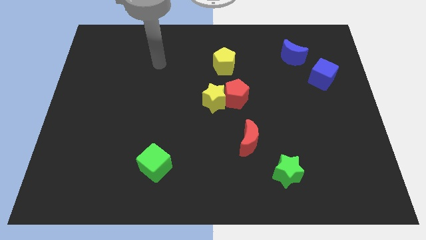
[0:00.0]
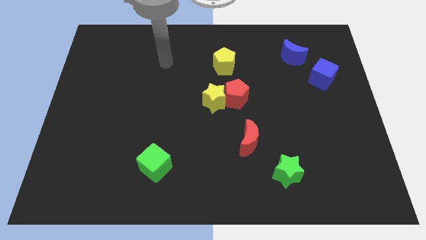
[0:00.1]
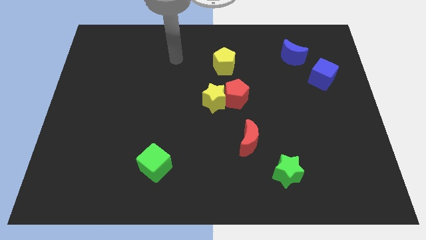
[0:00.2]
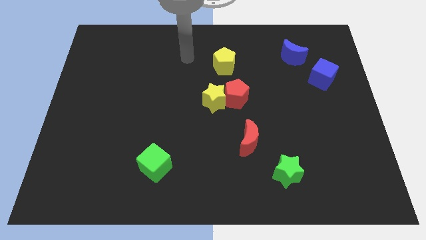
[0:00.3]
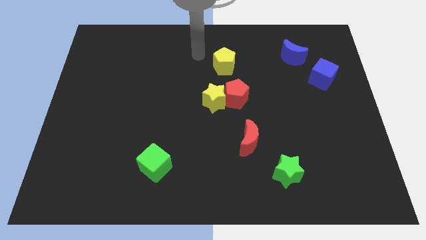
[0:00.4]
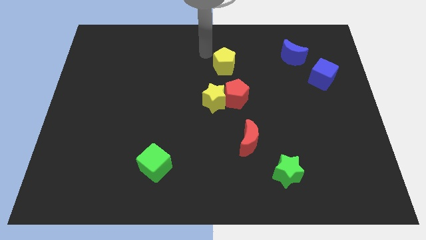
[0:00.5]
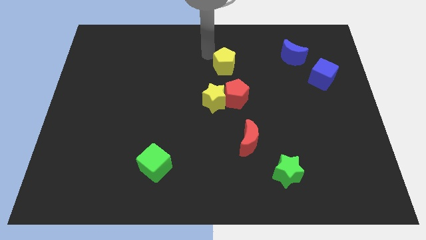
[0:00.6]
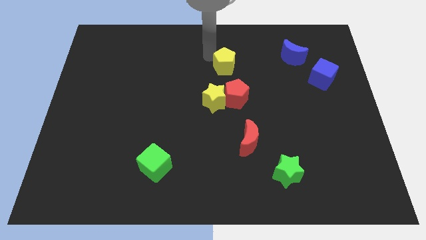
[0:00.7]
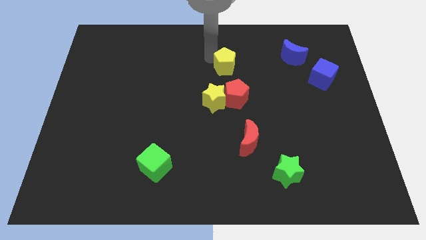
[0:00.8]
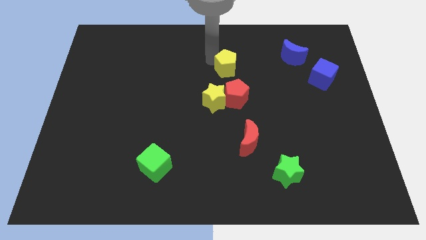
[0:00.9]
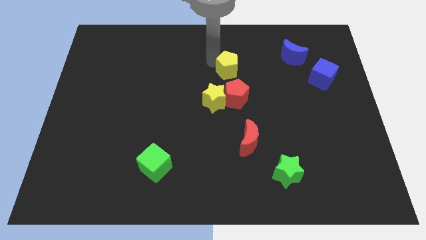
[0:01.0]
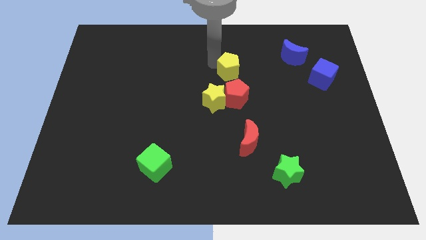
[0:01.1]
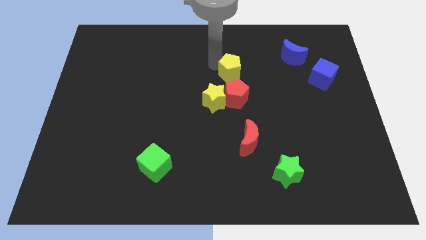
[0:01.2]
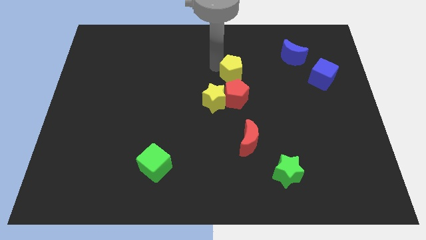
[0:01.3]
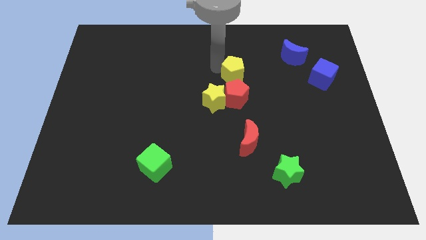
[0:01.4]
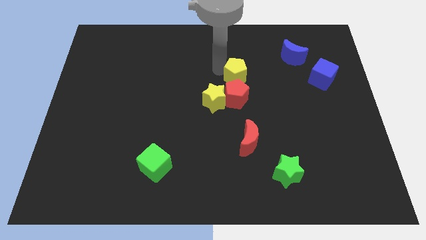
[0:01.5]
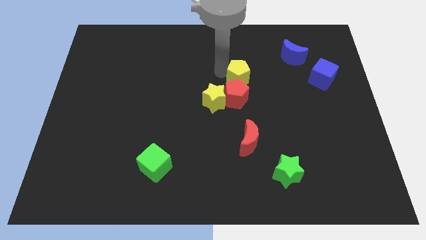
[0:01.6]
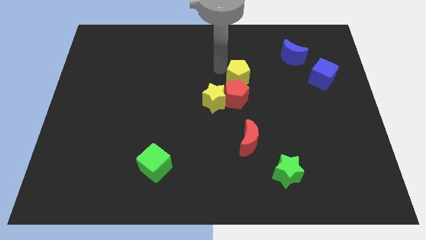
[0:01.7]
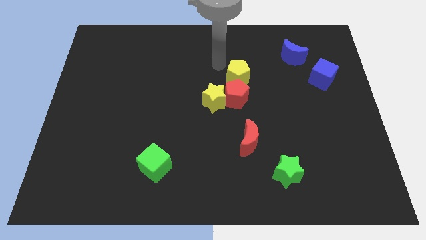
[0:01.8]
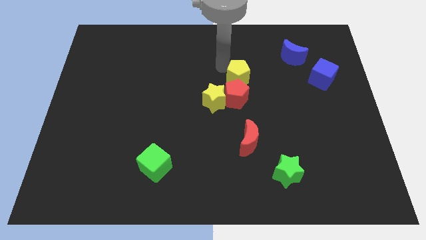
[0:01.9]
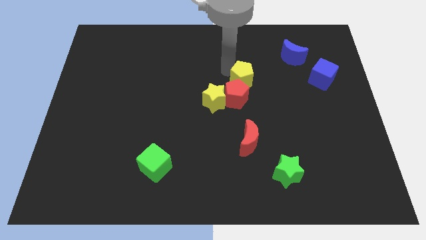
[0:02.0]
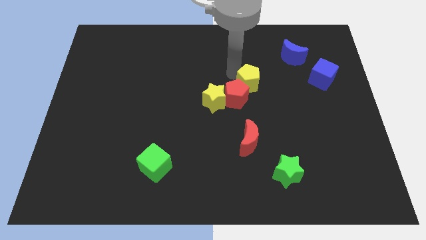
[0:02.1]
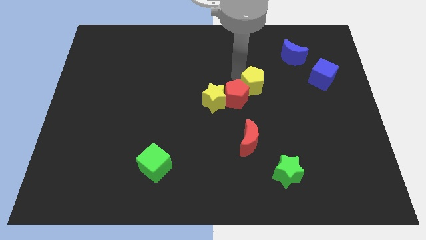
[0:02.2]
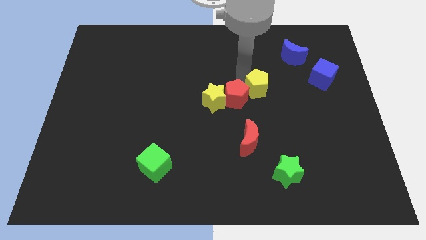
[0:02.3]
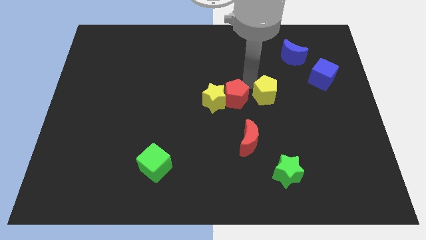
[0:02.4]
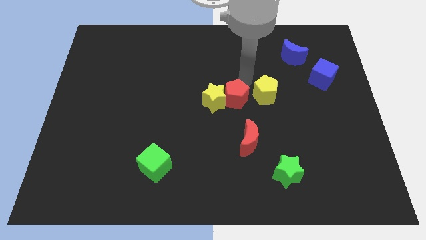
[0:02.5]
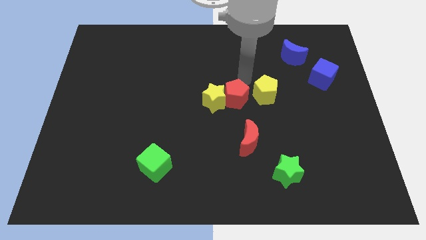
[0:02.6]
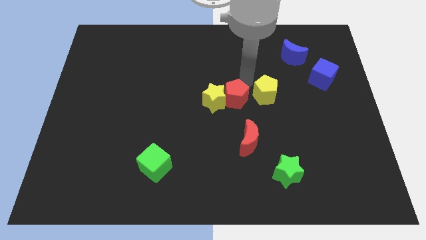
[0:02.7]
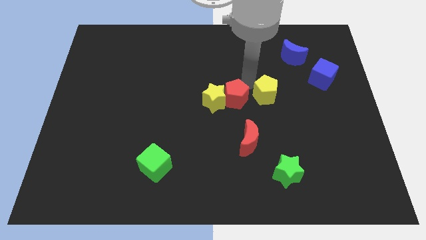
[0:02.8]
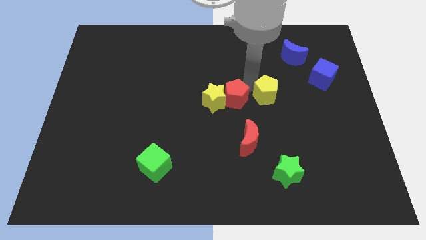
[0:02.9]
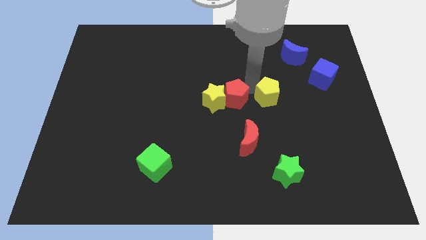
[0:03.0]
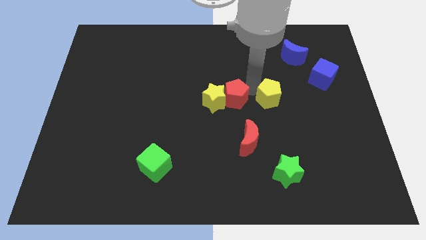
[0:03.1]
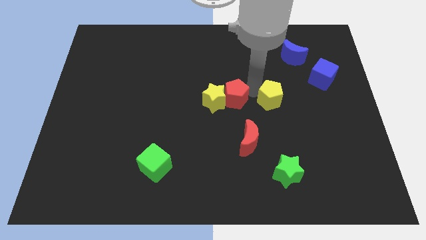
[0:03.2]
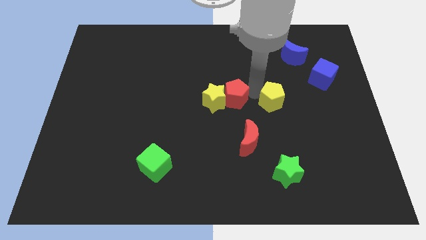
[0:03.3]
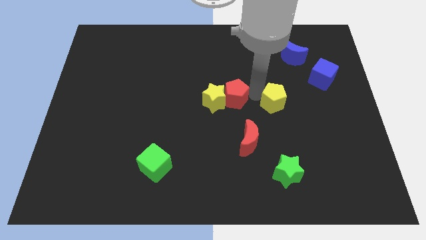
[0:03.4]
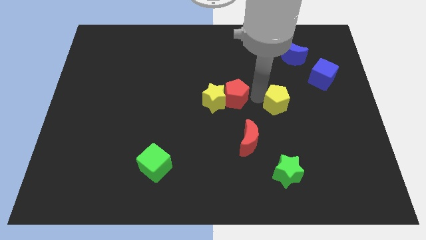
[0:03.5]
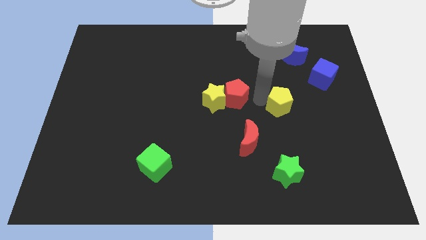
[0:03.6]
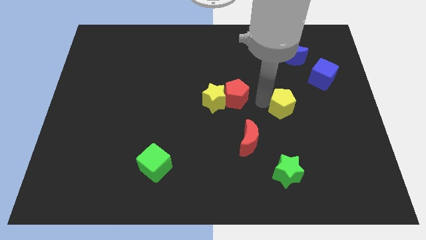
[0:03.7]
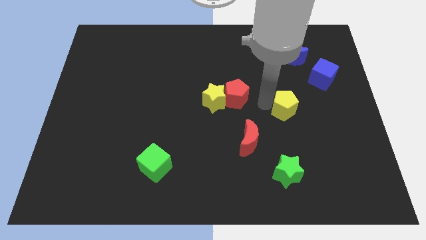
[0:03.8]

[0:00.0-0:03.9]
push the yellow pentagon down and to the right diagonally

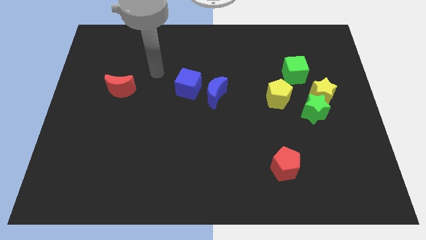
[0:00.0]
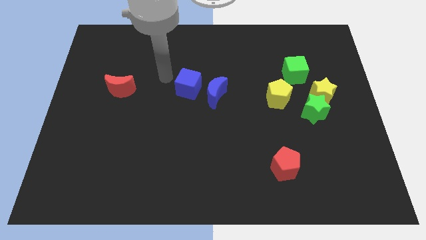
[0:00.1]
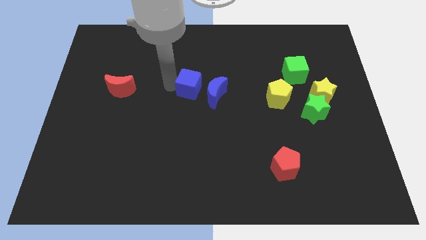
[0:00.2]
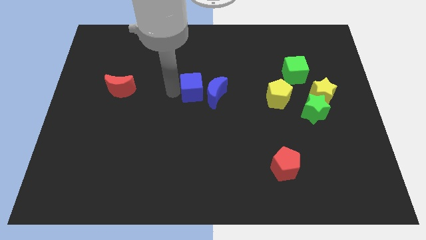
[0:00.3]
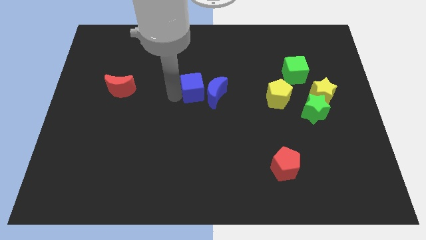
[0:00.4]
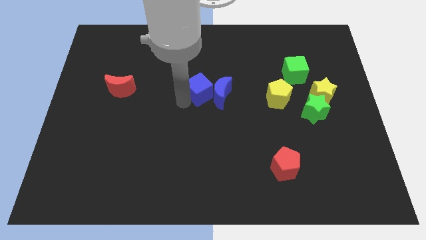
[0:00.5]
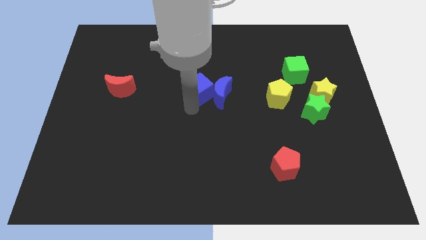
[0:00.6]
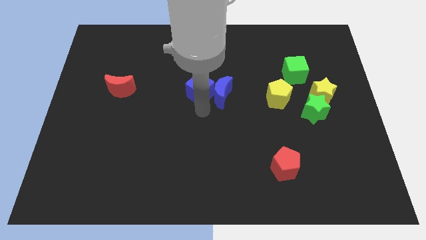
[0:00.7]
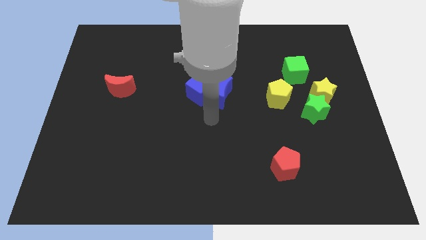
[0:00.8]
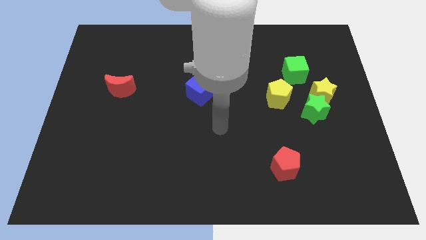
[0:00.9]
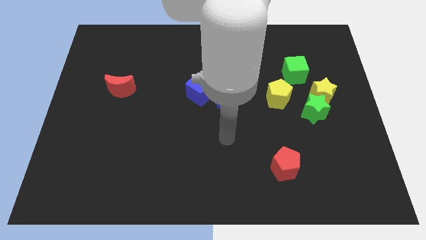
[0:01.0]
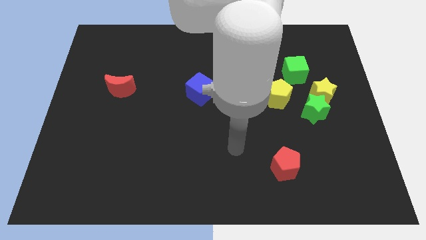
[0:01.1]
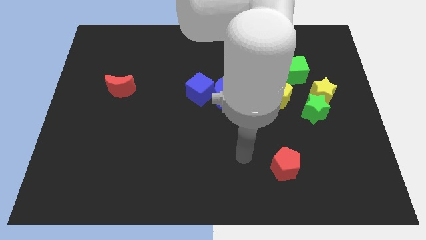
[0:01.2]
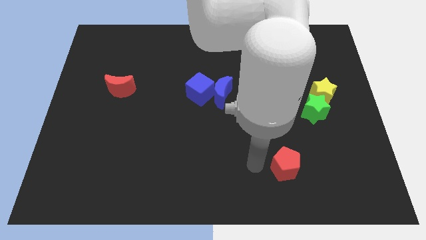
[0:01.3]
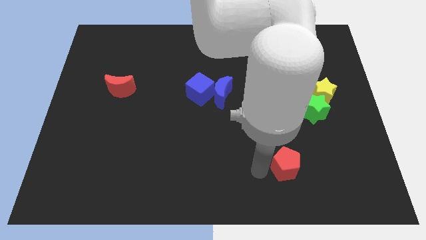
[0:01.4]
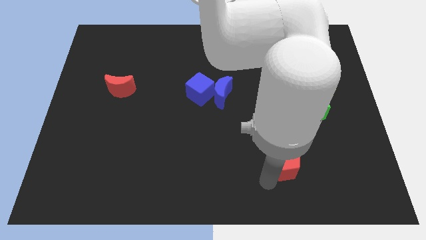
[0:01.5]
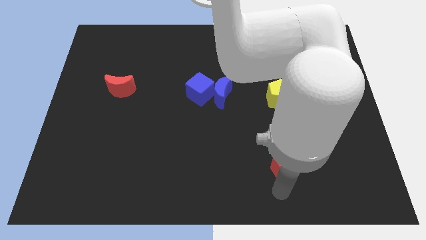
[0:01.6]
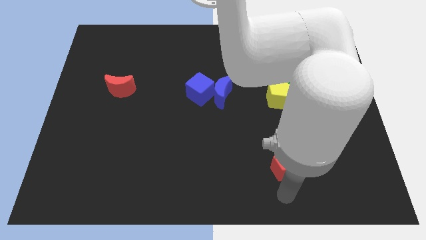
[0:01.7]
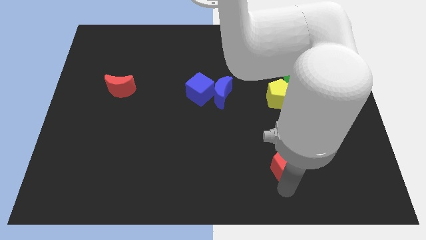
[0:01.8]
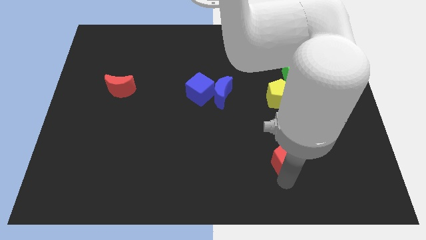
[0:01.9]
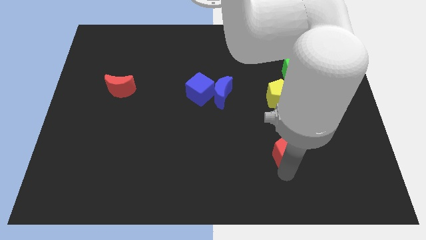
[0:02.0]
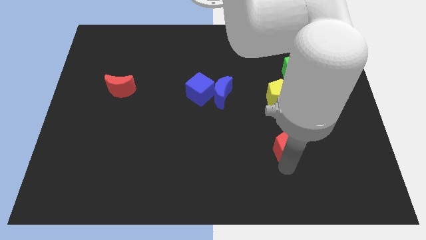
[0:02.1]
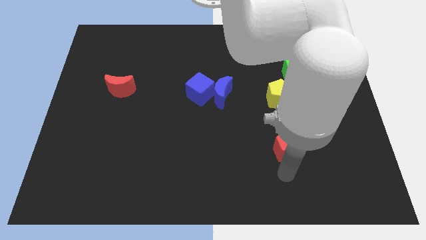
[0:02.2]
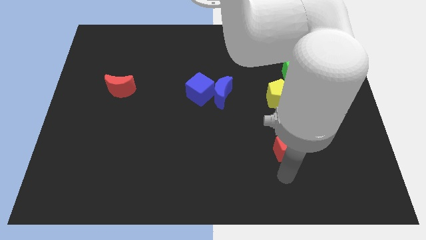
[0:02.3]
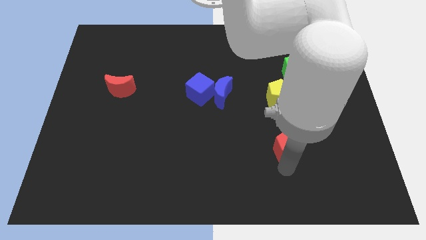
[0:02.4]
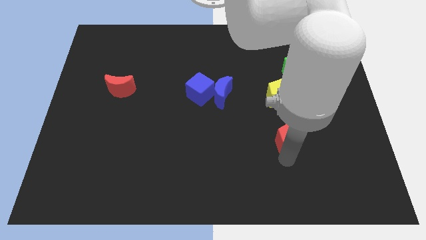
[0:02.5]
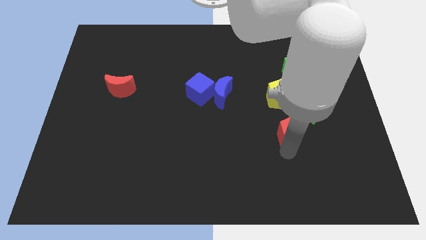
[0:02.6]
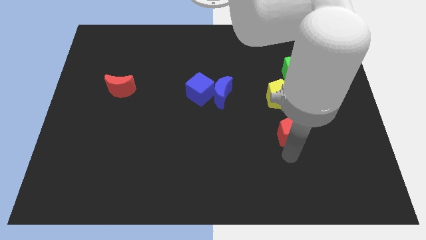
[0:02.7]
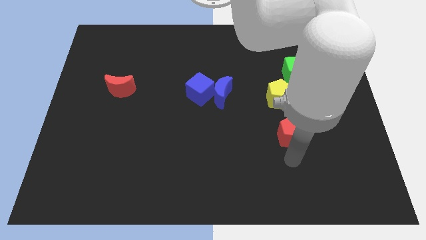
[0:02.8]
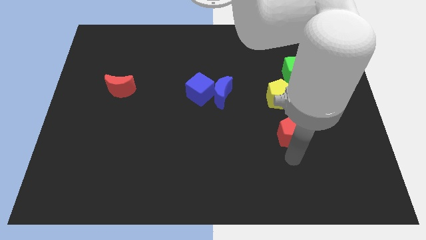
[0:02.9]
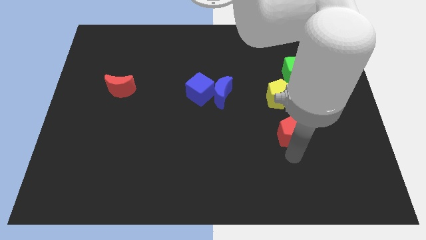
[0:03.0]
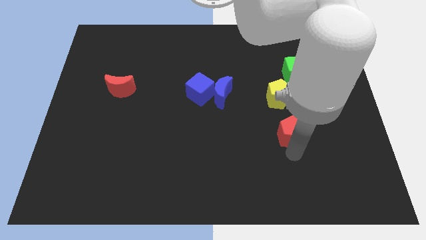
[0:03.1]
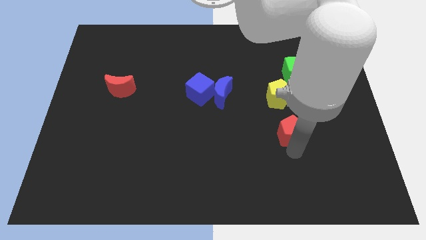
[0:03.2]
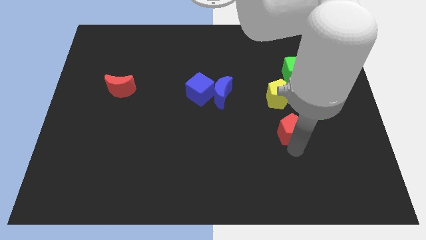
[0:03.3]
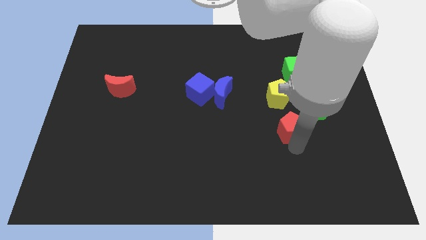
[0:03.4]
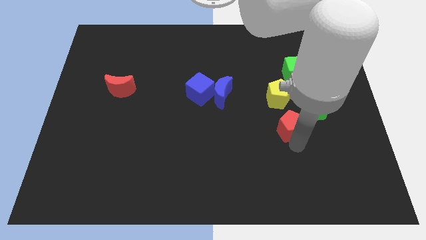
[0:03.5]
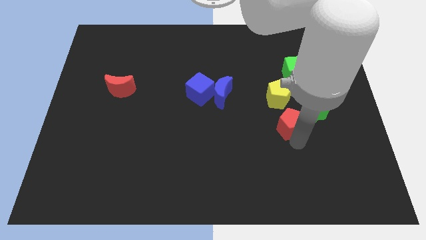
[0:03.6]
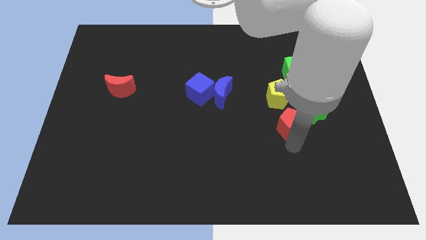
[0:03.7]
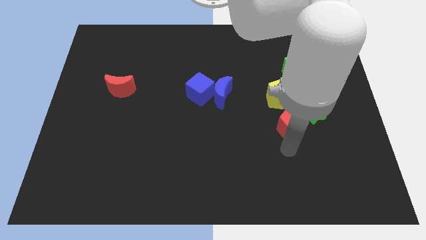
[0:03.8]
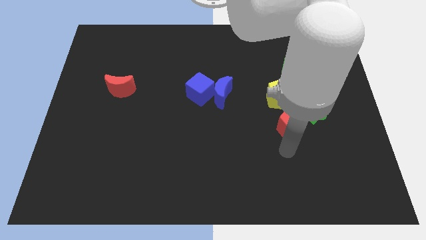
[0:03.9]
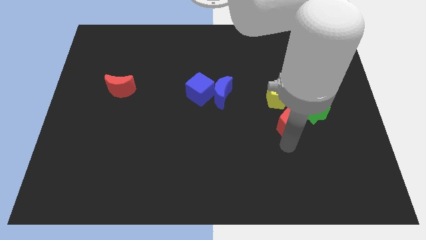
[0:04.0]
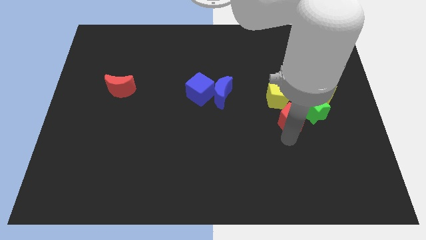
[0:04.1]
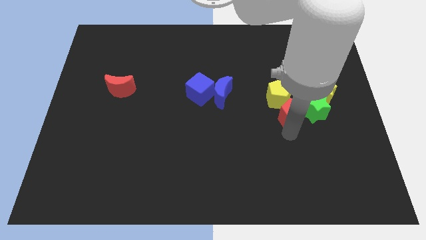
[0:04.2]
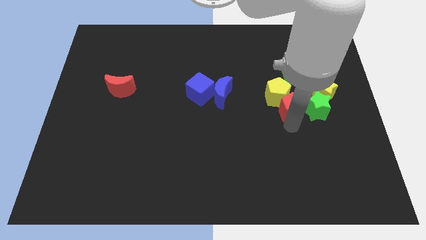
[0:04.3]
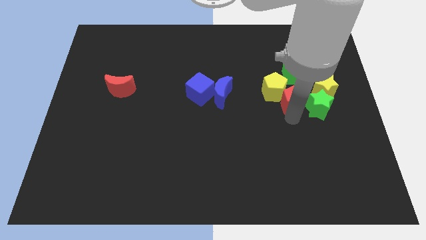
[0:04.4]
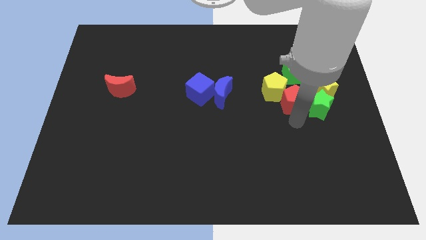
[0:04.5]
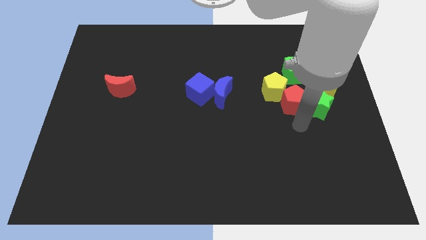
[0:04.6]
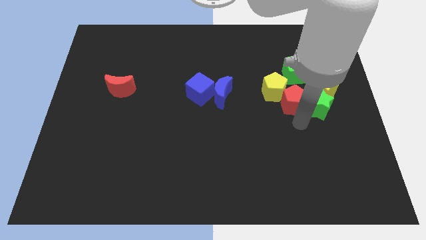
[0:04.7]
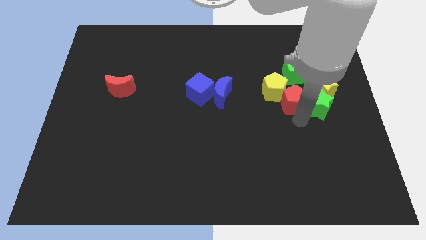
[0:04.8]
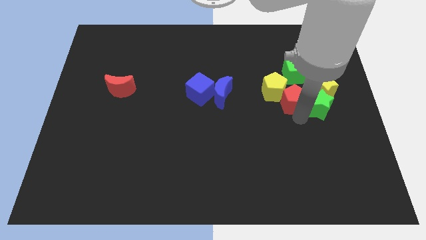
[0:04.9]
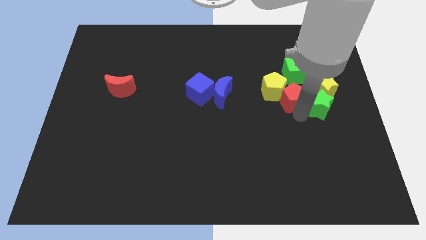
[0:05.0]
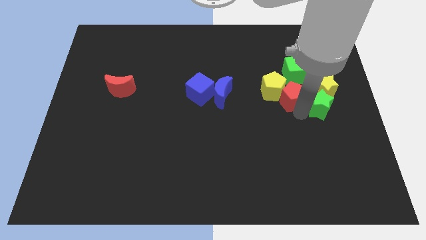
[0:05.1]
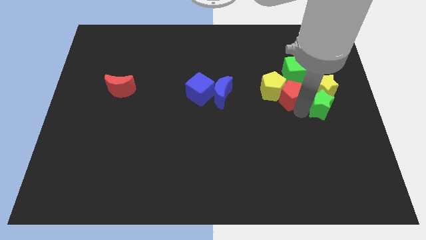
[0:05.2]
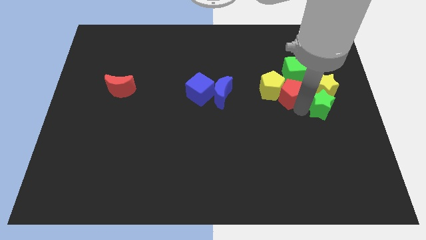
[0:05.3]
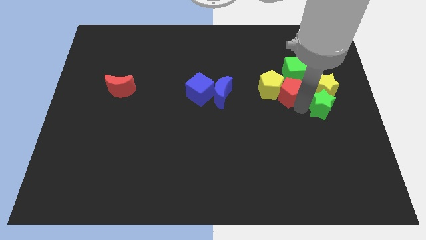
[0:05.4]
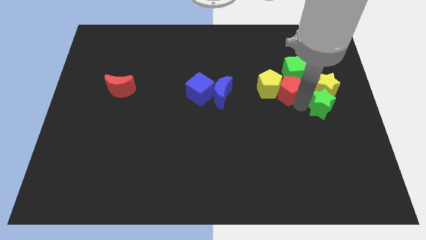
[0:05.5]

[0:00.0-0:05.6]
move the red pentagon upwards
